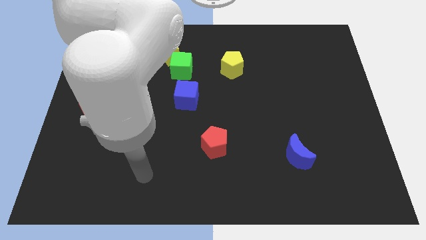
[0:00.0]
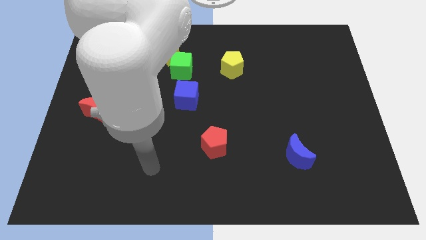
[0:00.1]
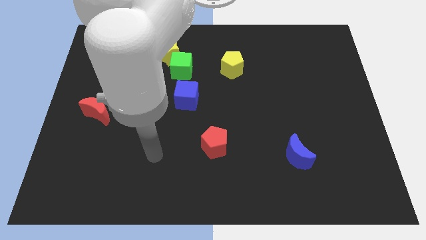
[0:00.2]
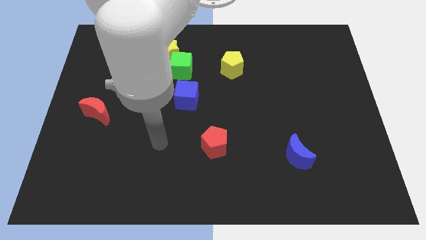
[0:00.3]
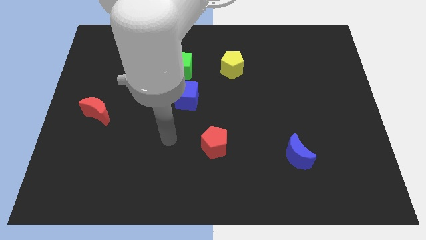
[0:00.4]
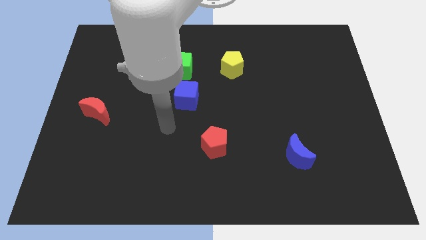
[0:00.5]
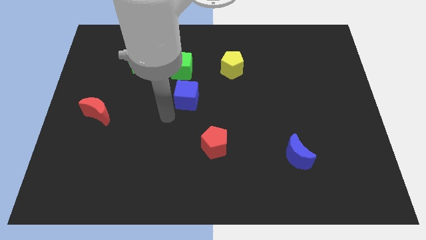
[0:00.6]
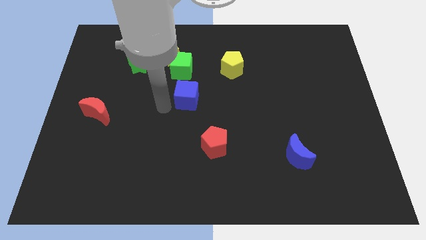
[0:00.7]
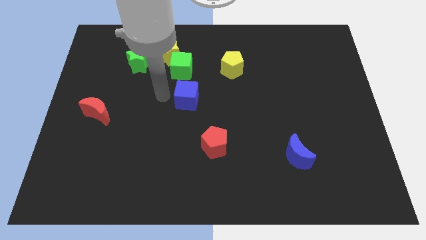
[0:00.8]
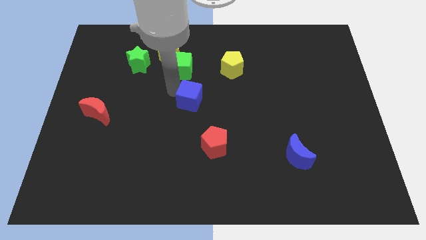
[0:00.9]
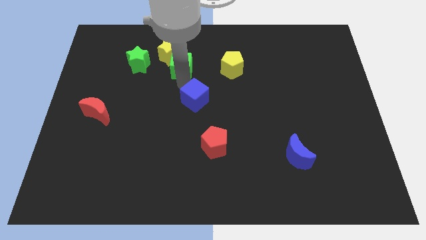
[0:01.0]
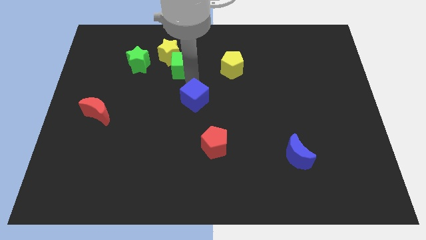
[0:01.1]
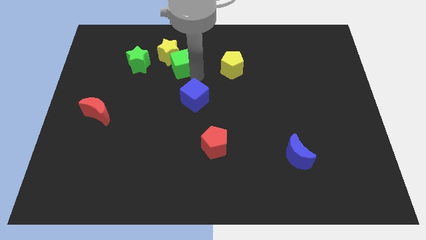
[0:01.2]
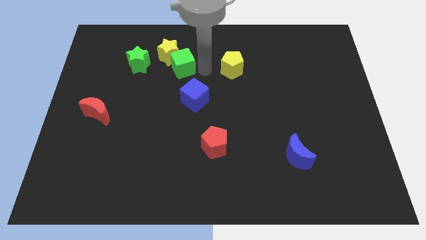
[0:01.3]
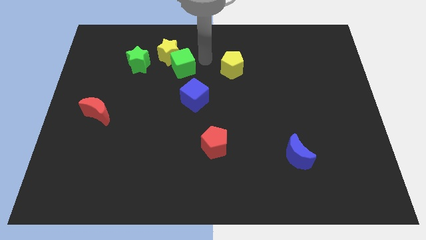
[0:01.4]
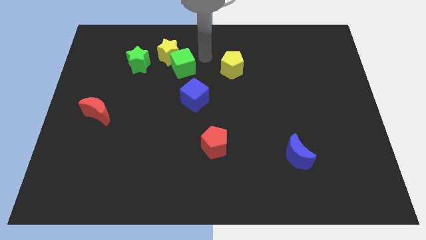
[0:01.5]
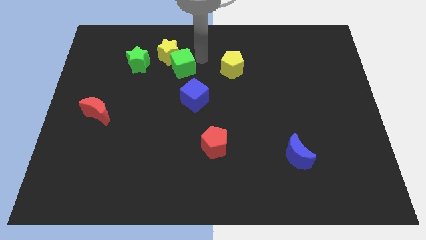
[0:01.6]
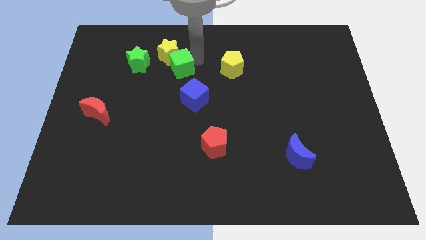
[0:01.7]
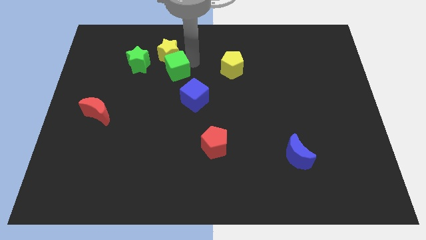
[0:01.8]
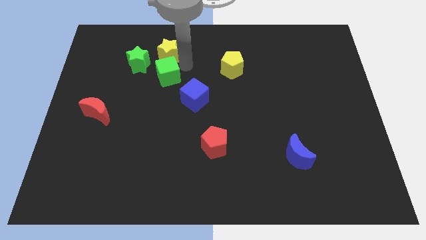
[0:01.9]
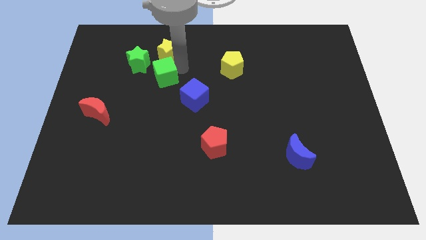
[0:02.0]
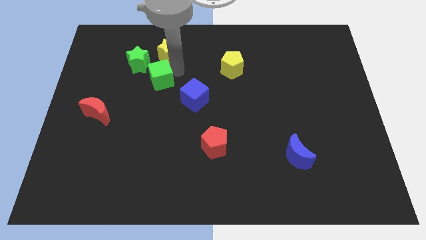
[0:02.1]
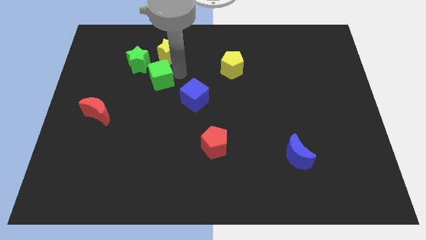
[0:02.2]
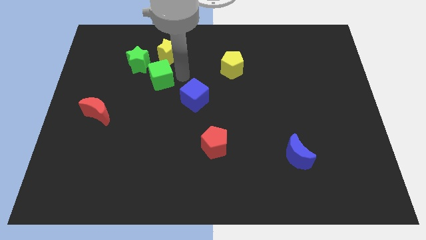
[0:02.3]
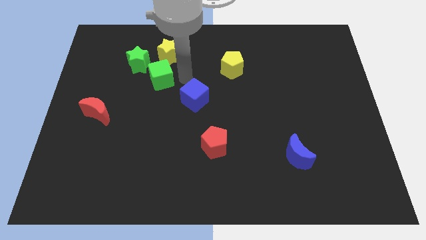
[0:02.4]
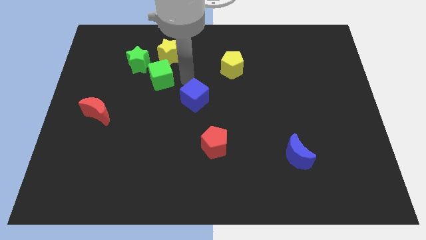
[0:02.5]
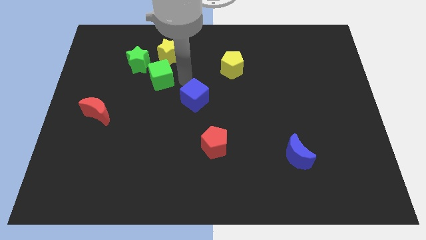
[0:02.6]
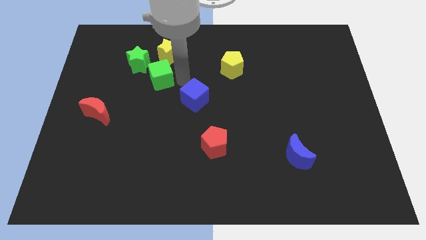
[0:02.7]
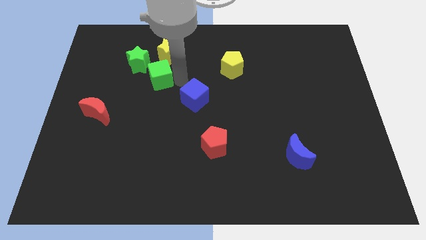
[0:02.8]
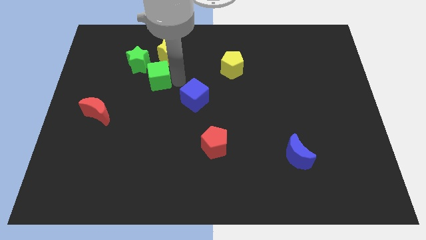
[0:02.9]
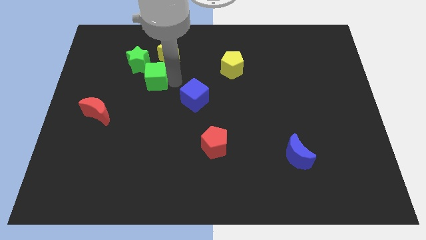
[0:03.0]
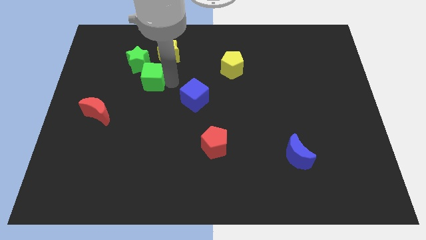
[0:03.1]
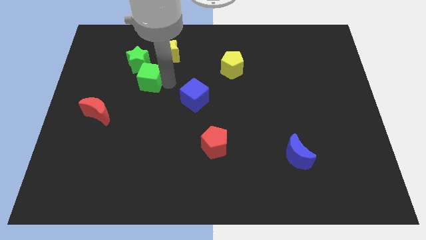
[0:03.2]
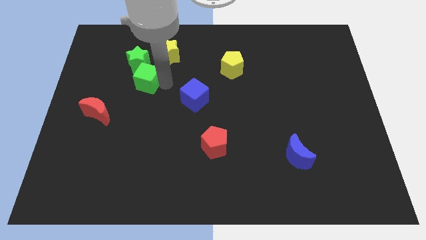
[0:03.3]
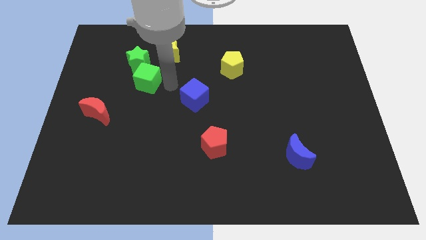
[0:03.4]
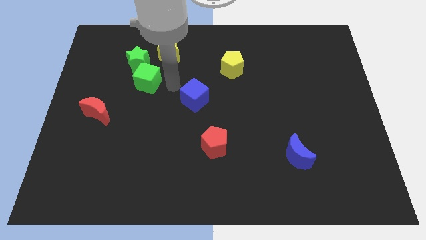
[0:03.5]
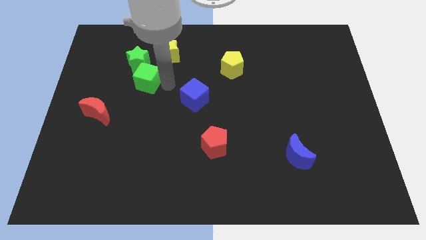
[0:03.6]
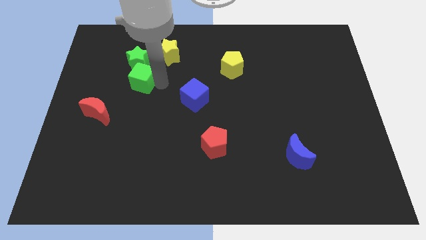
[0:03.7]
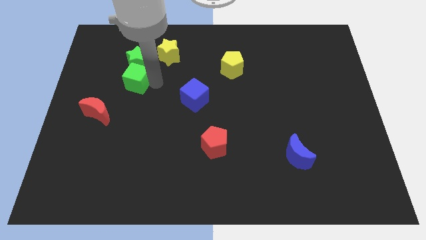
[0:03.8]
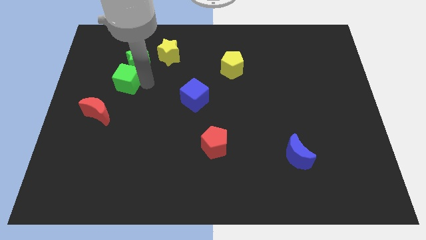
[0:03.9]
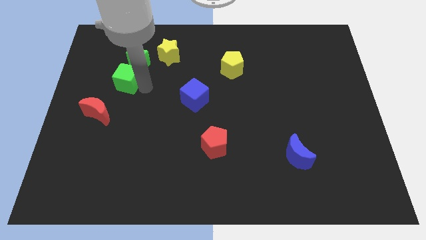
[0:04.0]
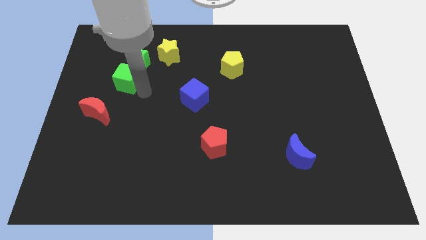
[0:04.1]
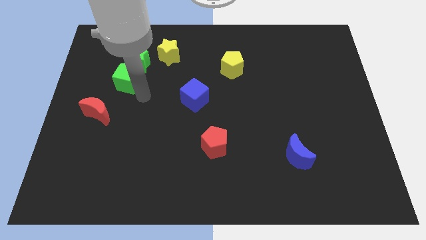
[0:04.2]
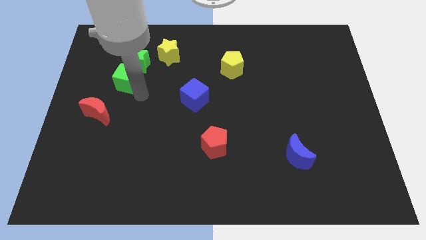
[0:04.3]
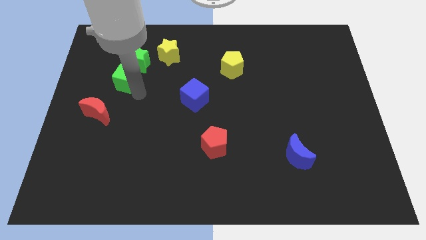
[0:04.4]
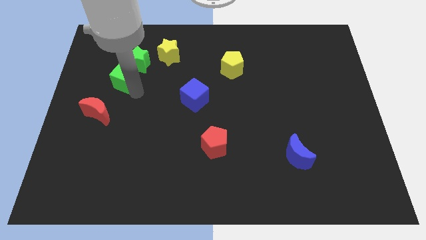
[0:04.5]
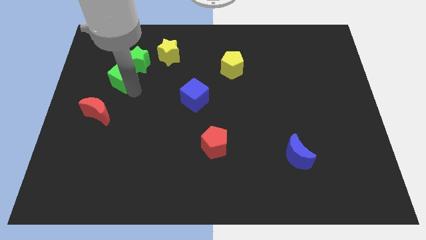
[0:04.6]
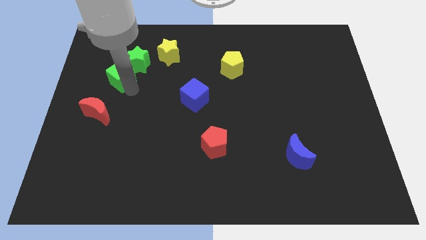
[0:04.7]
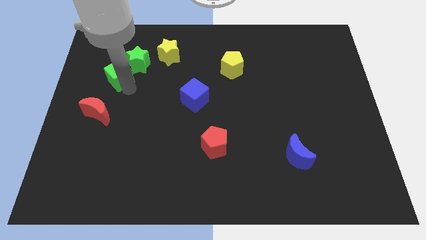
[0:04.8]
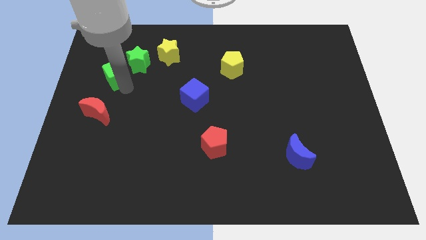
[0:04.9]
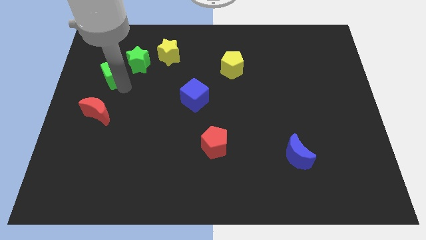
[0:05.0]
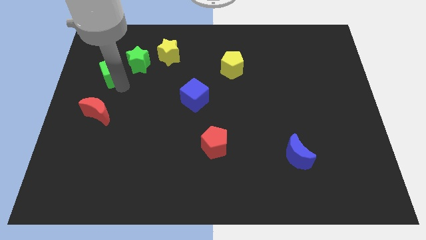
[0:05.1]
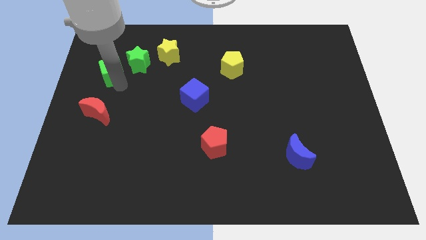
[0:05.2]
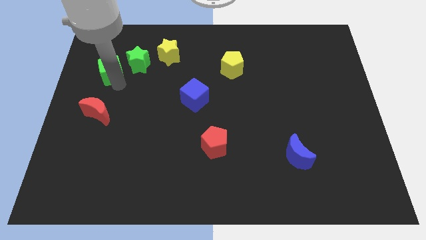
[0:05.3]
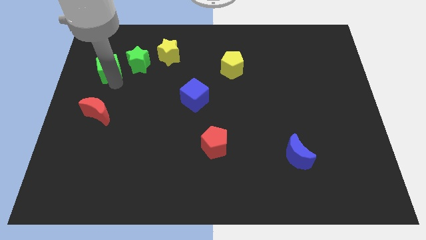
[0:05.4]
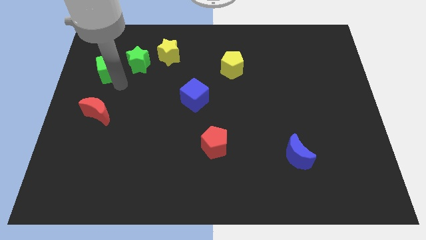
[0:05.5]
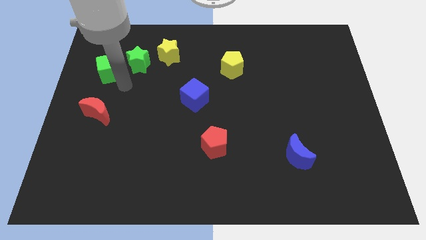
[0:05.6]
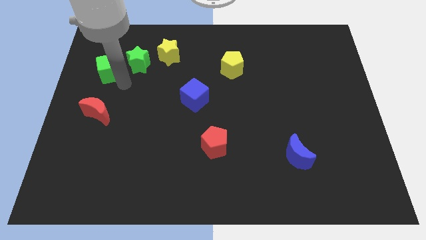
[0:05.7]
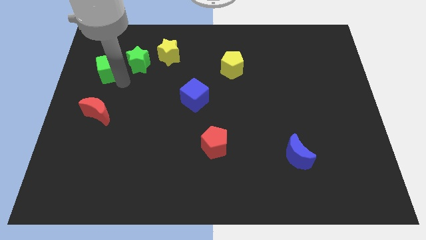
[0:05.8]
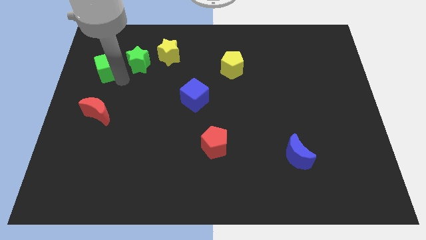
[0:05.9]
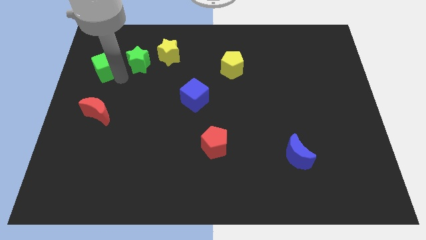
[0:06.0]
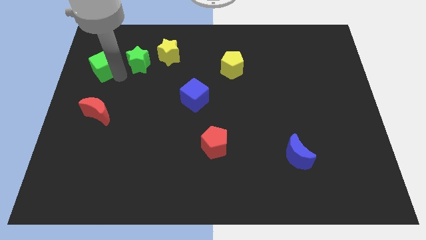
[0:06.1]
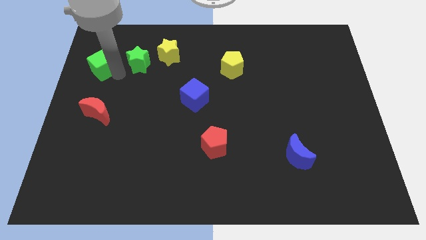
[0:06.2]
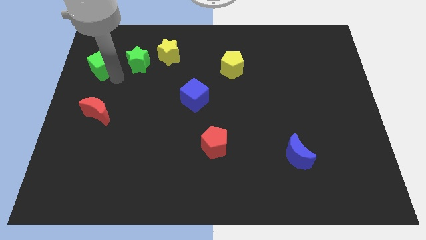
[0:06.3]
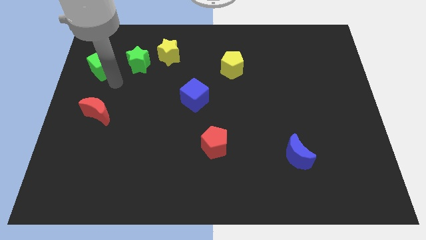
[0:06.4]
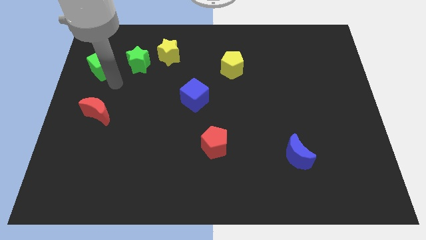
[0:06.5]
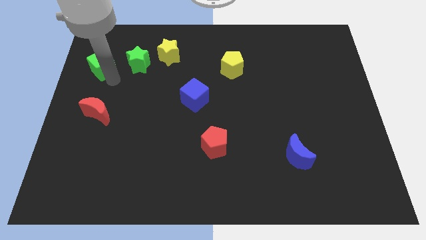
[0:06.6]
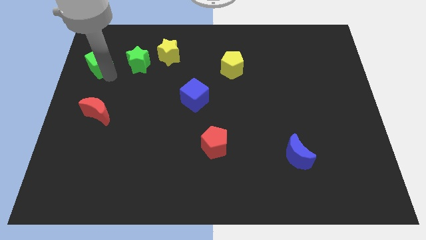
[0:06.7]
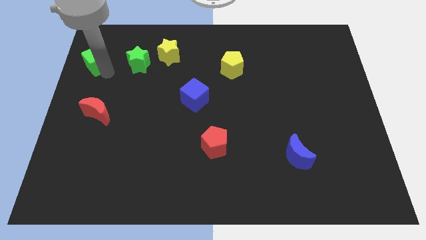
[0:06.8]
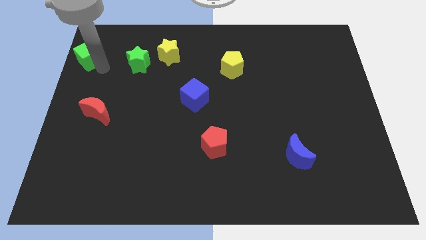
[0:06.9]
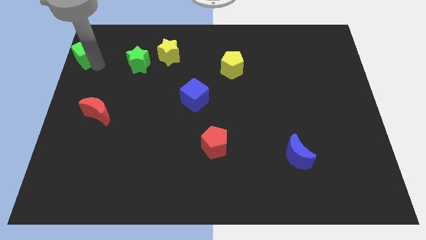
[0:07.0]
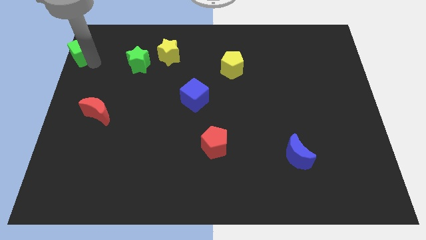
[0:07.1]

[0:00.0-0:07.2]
slide the green cube to the top left
